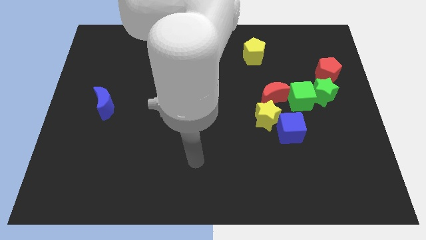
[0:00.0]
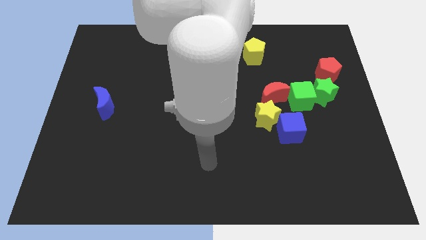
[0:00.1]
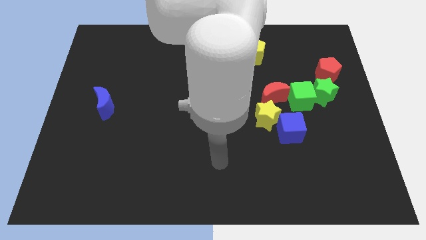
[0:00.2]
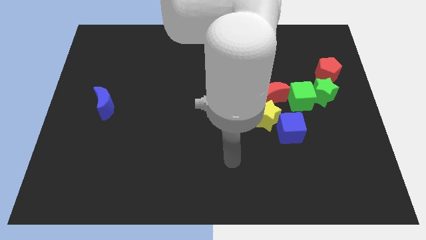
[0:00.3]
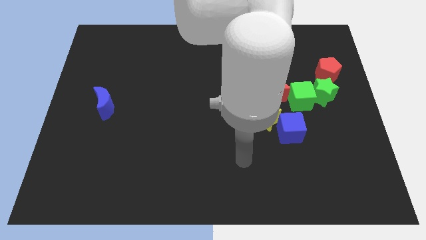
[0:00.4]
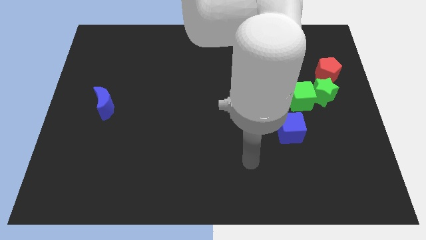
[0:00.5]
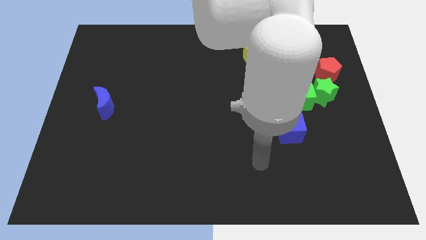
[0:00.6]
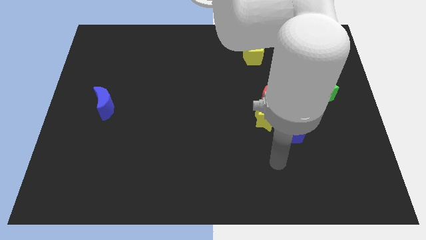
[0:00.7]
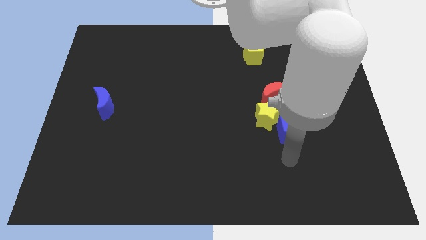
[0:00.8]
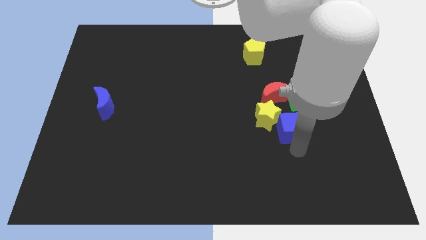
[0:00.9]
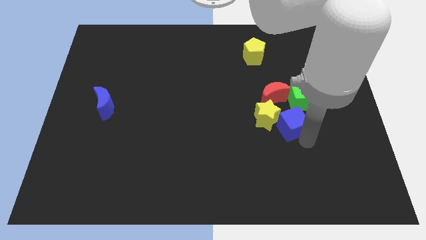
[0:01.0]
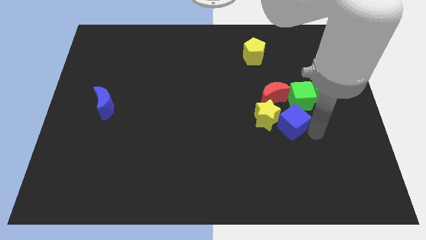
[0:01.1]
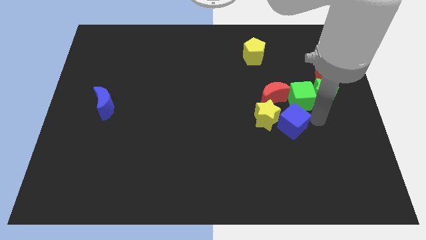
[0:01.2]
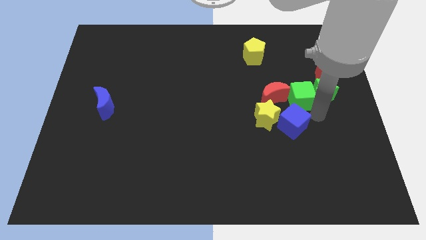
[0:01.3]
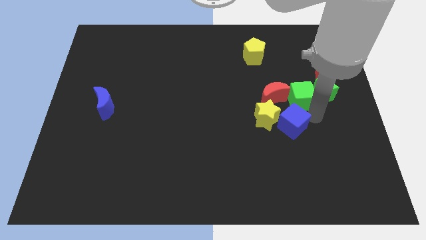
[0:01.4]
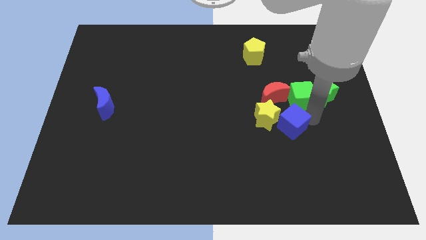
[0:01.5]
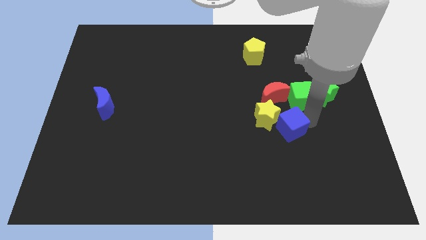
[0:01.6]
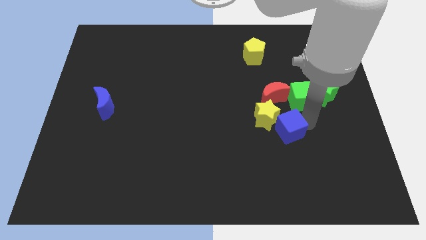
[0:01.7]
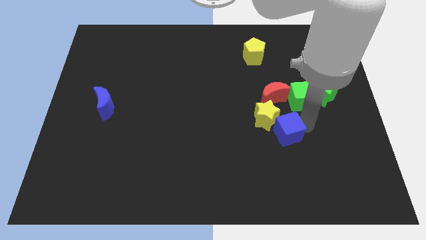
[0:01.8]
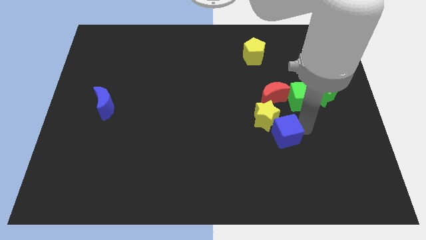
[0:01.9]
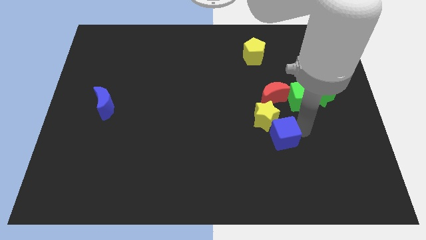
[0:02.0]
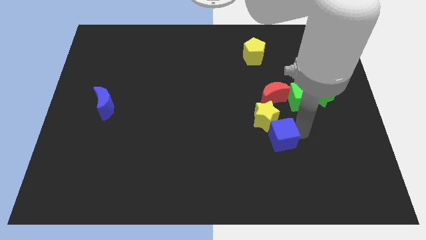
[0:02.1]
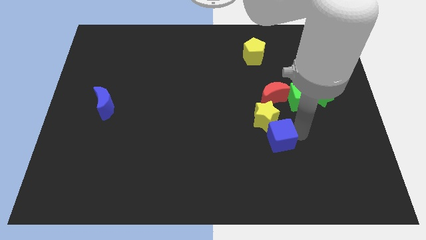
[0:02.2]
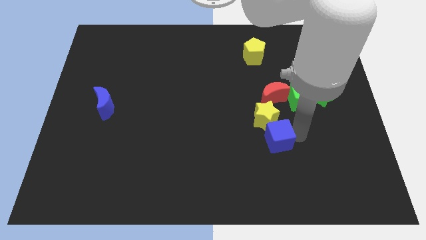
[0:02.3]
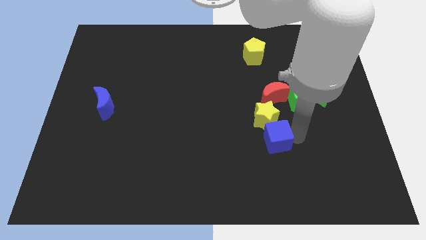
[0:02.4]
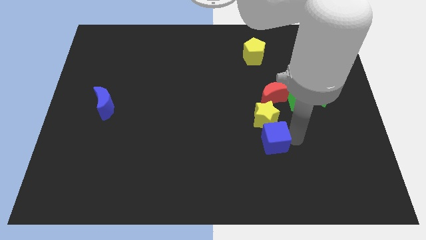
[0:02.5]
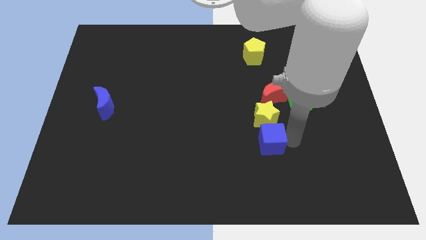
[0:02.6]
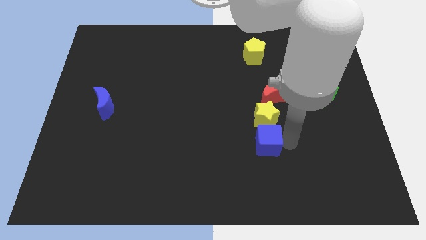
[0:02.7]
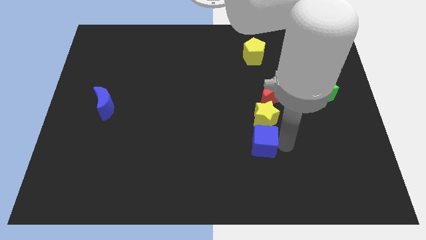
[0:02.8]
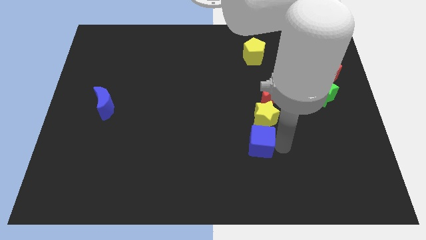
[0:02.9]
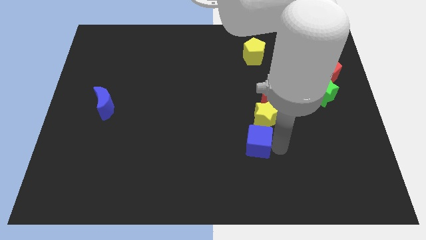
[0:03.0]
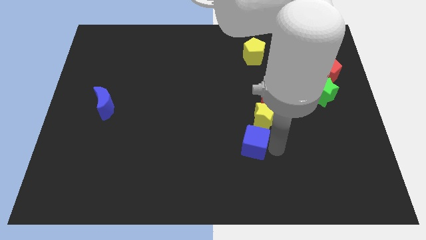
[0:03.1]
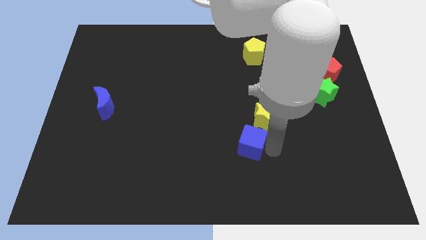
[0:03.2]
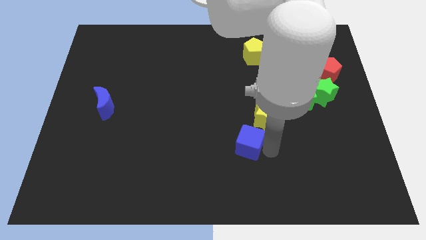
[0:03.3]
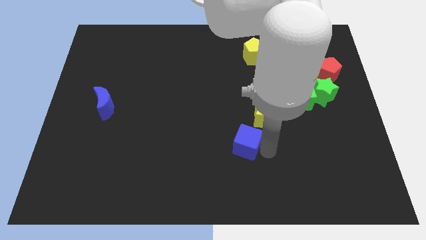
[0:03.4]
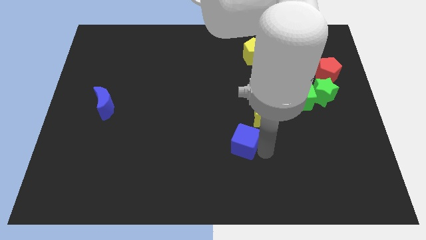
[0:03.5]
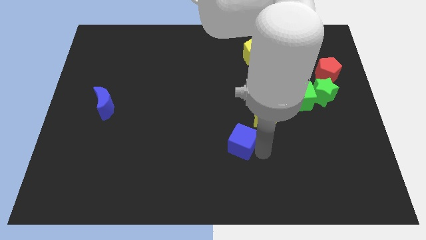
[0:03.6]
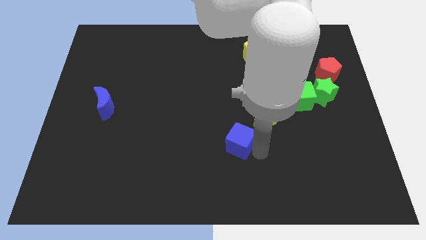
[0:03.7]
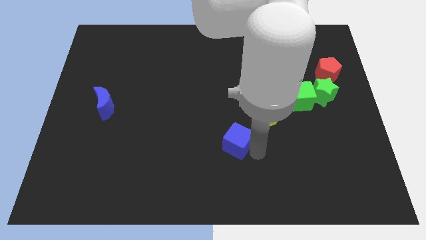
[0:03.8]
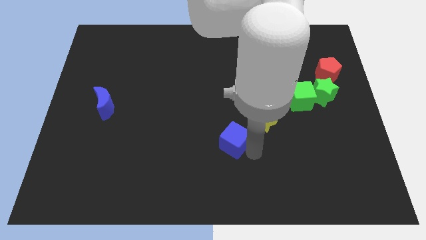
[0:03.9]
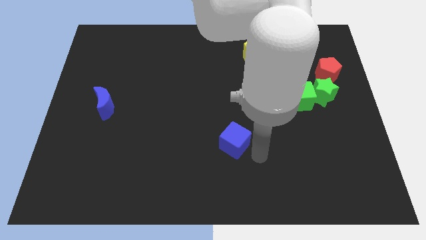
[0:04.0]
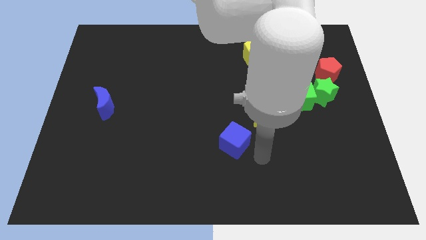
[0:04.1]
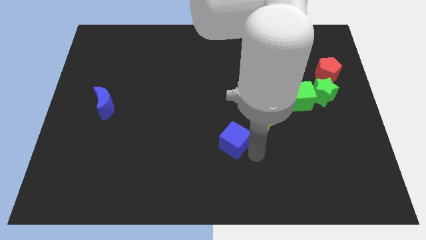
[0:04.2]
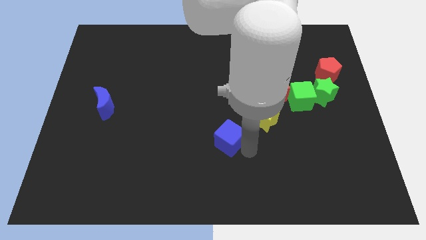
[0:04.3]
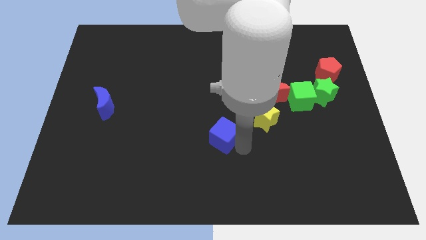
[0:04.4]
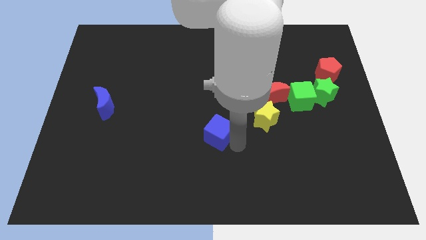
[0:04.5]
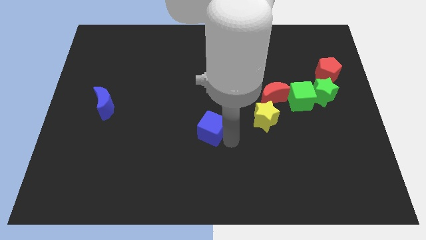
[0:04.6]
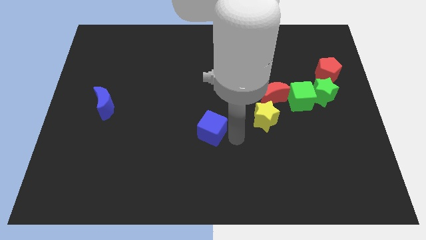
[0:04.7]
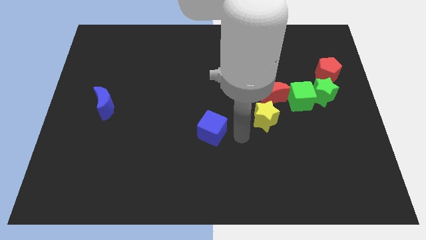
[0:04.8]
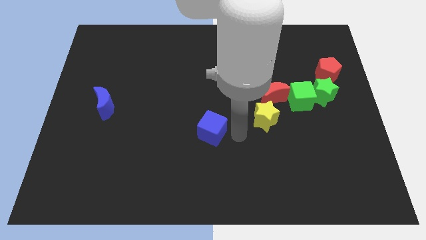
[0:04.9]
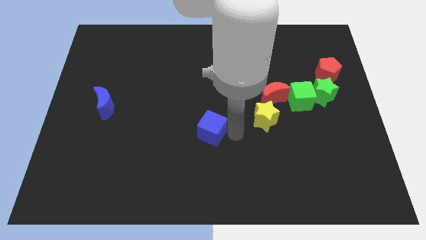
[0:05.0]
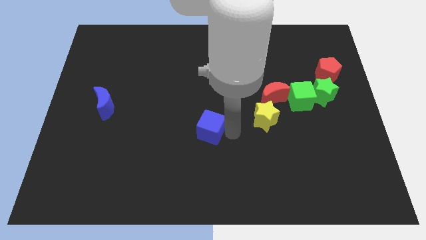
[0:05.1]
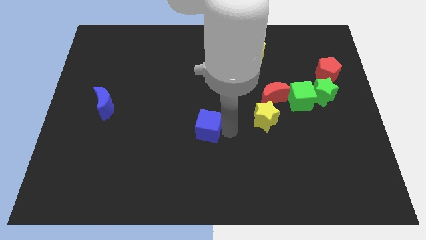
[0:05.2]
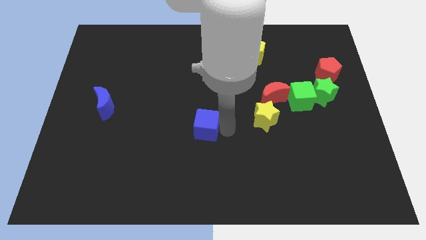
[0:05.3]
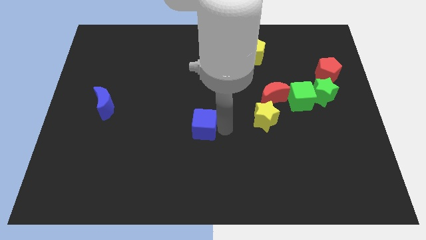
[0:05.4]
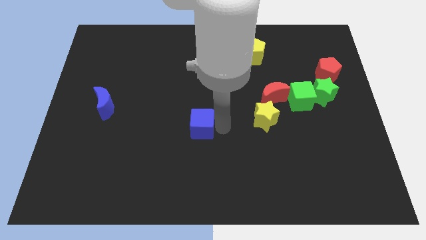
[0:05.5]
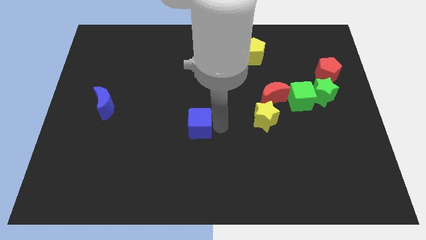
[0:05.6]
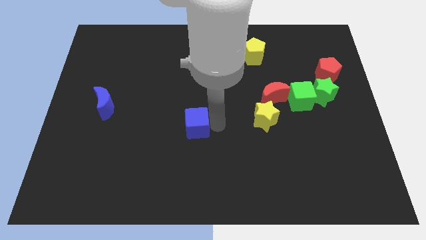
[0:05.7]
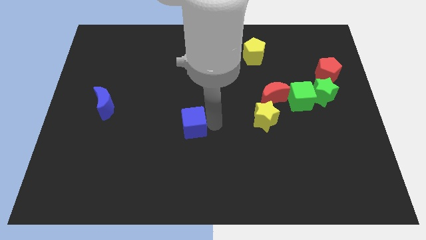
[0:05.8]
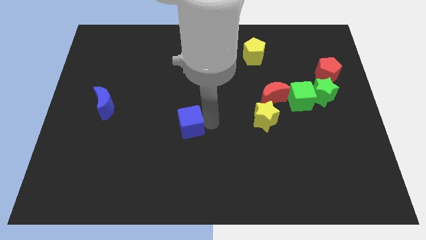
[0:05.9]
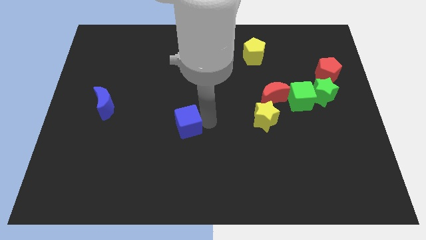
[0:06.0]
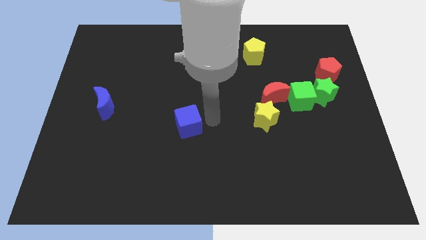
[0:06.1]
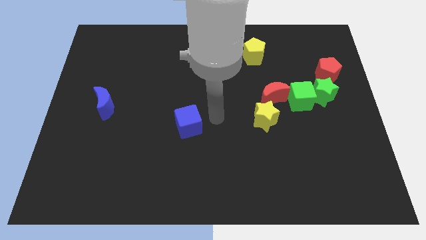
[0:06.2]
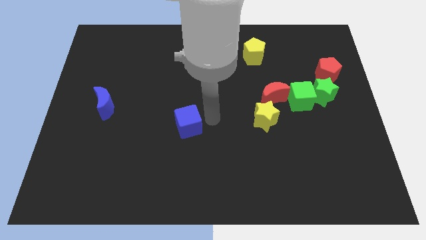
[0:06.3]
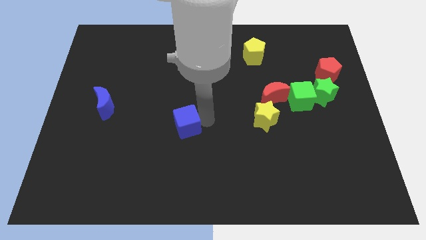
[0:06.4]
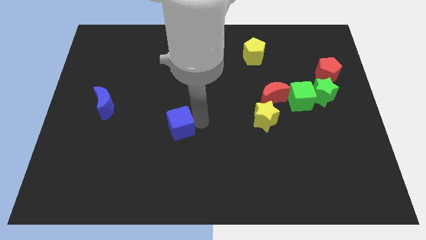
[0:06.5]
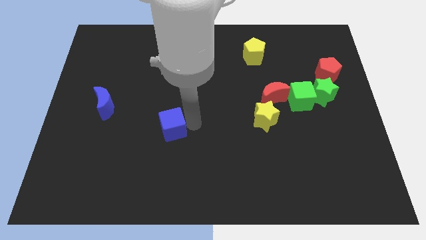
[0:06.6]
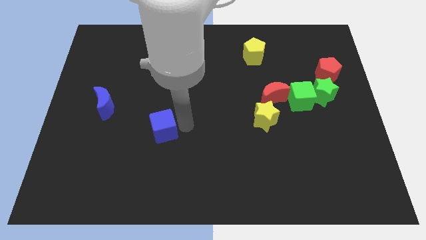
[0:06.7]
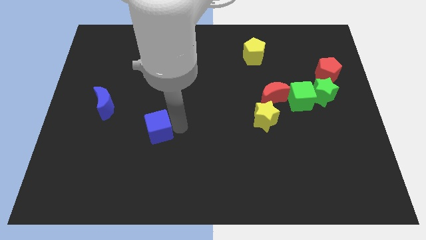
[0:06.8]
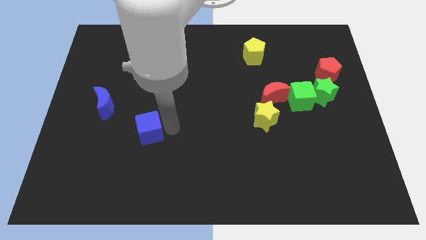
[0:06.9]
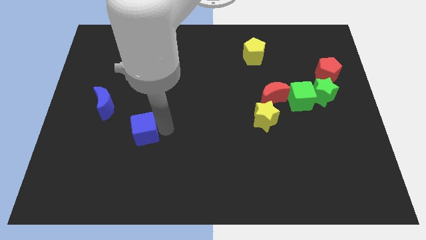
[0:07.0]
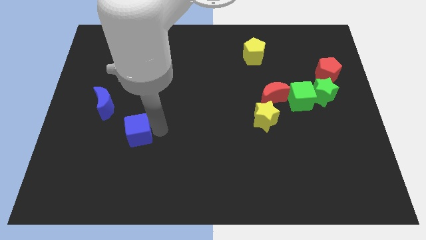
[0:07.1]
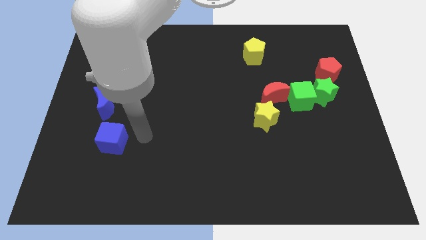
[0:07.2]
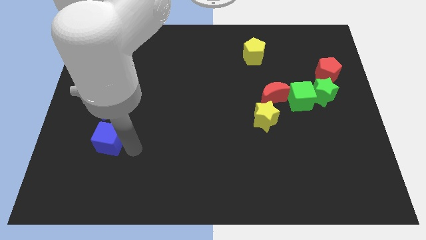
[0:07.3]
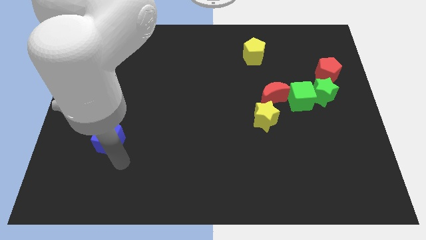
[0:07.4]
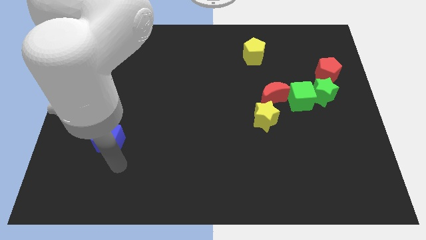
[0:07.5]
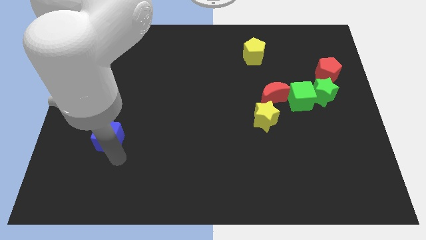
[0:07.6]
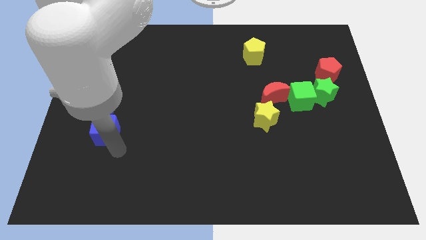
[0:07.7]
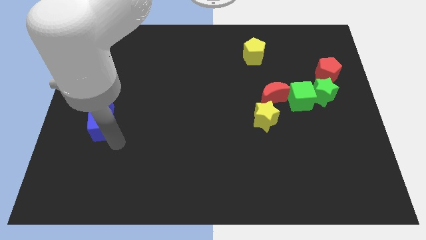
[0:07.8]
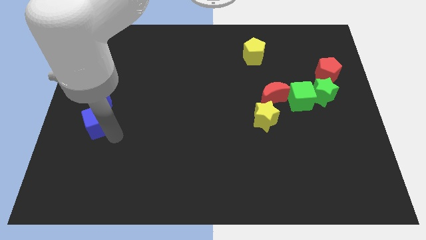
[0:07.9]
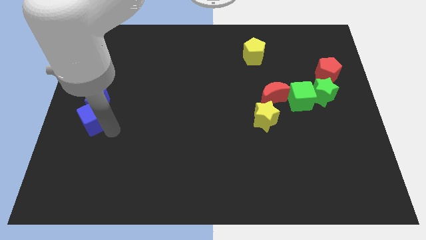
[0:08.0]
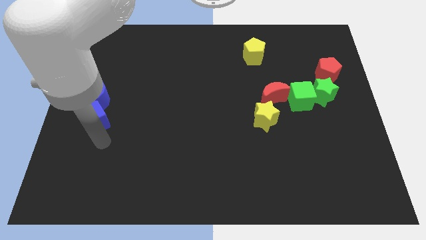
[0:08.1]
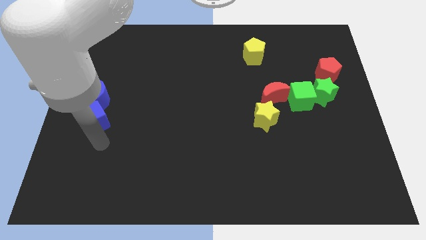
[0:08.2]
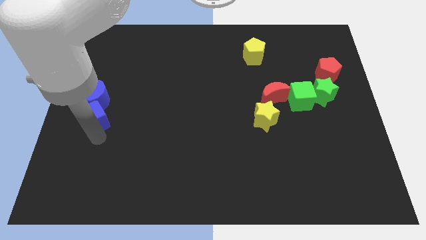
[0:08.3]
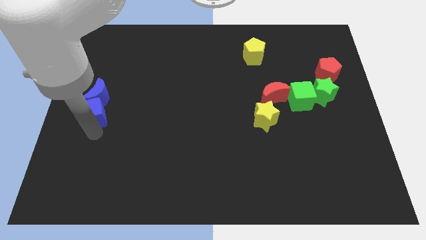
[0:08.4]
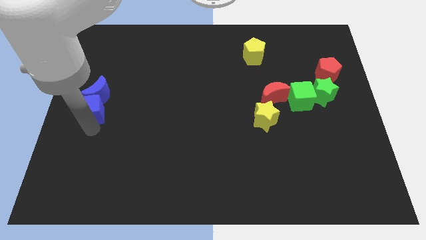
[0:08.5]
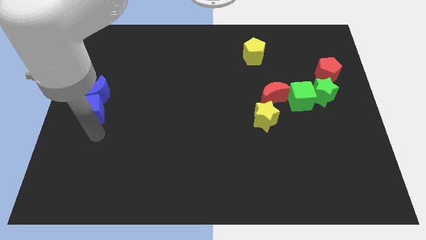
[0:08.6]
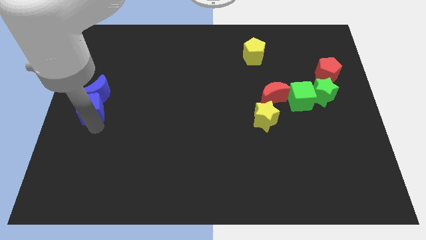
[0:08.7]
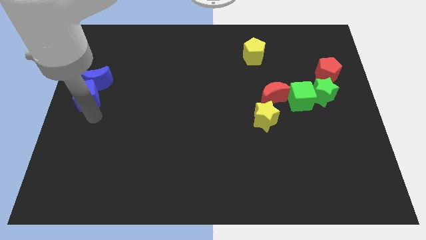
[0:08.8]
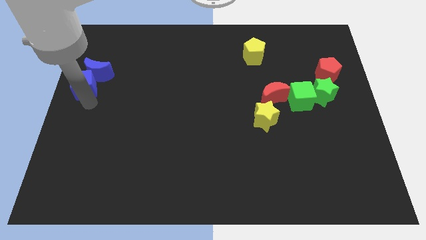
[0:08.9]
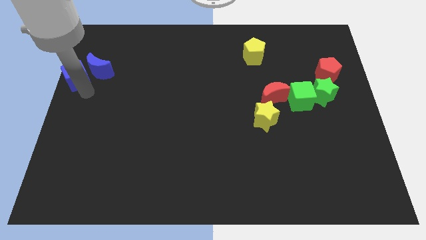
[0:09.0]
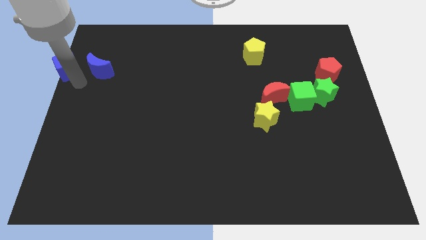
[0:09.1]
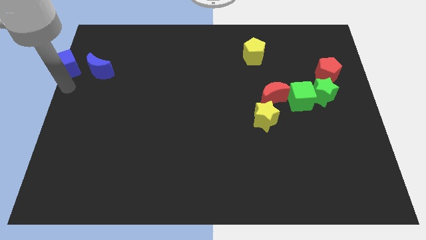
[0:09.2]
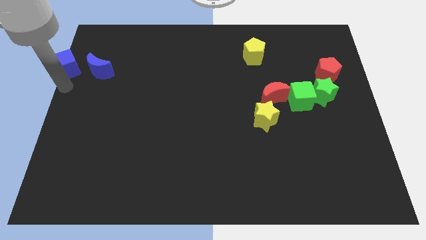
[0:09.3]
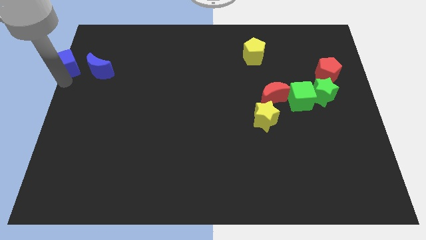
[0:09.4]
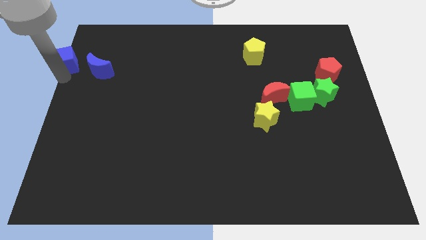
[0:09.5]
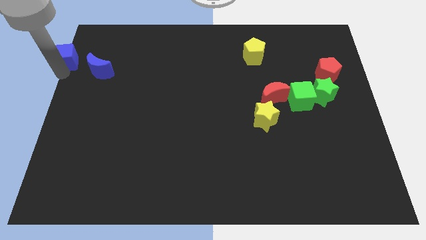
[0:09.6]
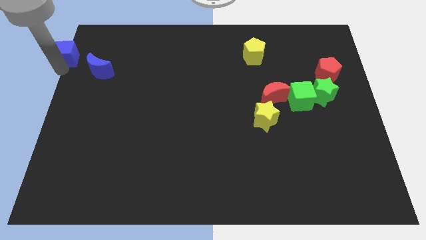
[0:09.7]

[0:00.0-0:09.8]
slide the blue cube to the top left of the board
